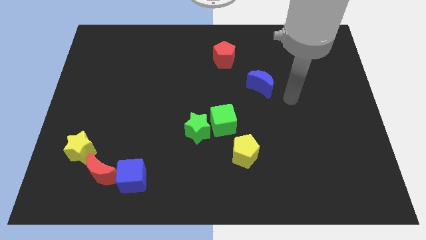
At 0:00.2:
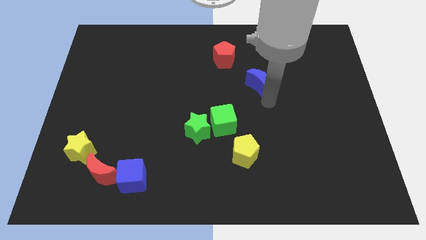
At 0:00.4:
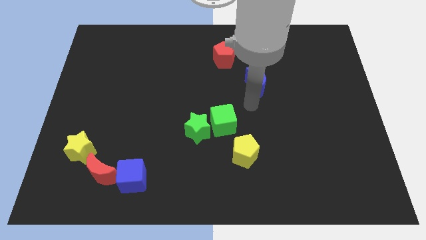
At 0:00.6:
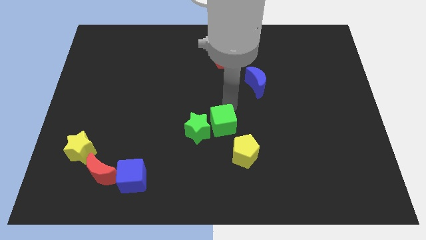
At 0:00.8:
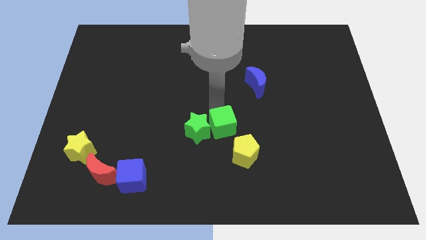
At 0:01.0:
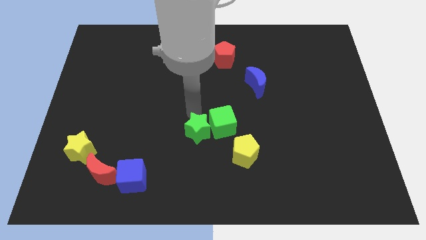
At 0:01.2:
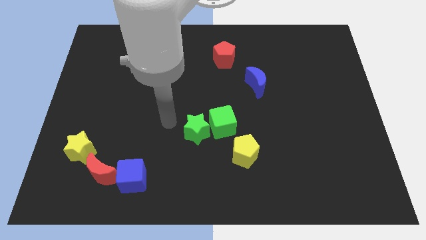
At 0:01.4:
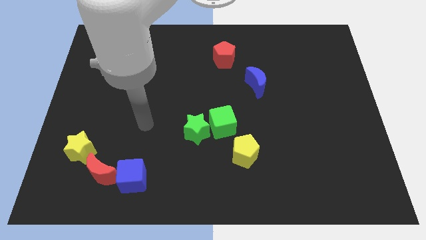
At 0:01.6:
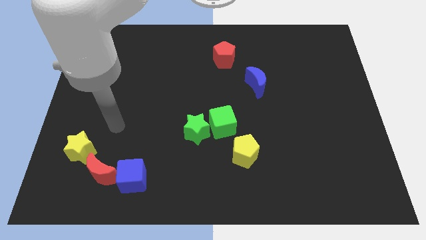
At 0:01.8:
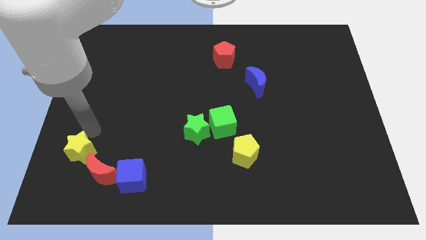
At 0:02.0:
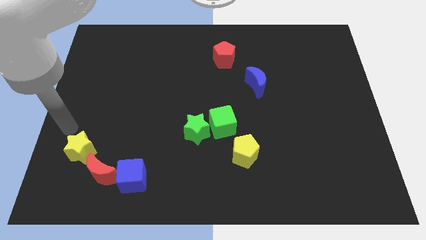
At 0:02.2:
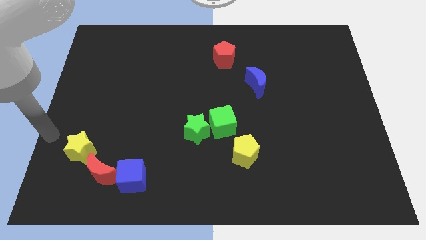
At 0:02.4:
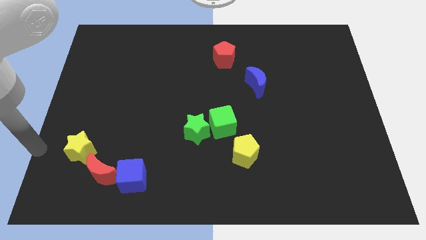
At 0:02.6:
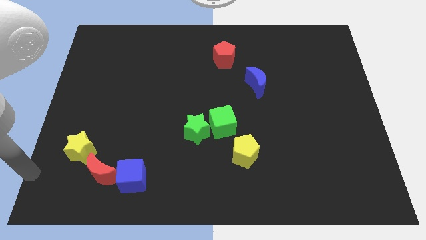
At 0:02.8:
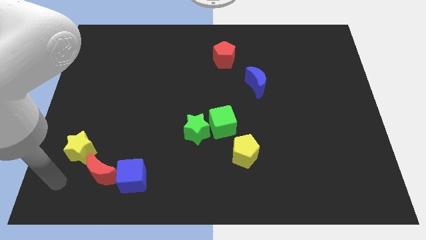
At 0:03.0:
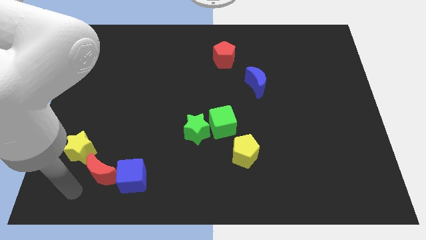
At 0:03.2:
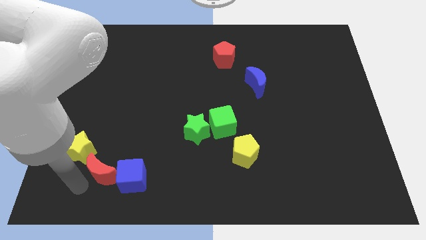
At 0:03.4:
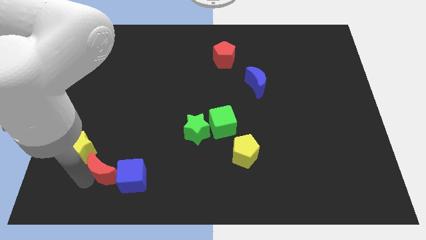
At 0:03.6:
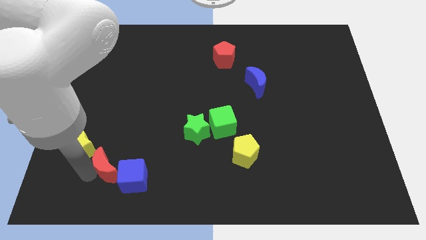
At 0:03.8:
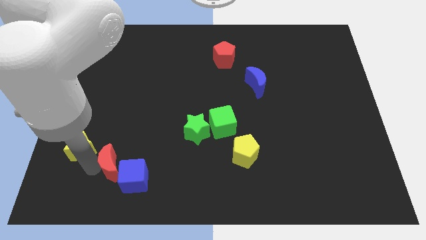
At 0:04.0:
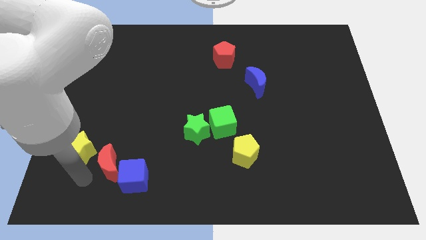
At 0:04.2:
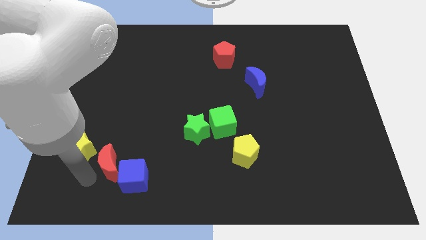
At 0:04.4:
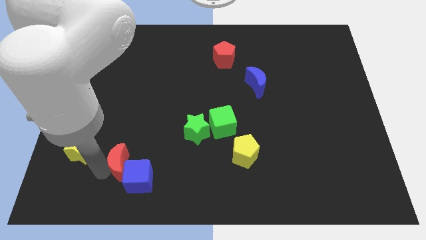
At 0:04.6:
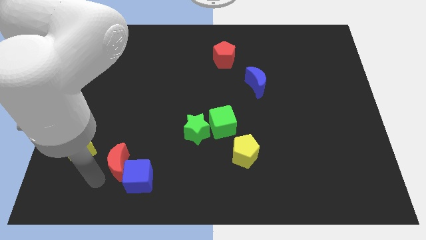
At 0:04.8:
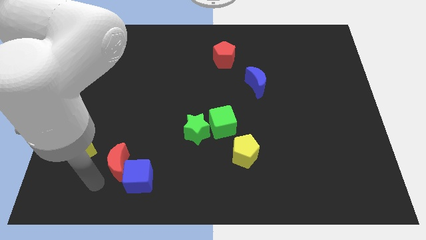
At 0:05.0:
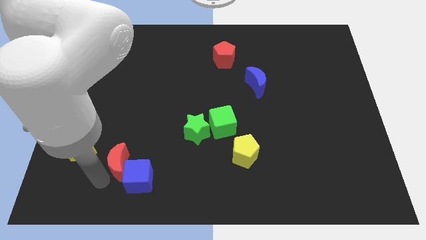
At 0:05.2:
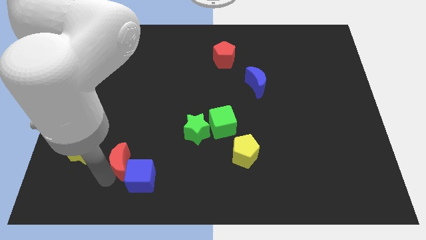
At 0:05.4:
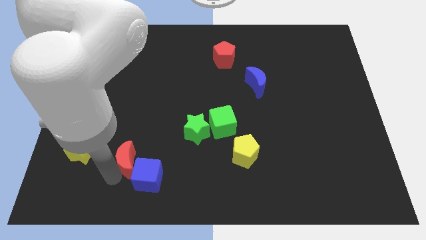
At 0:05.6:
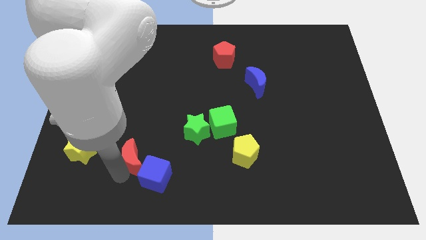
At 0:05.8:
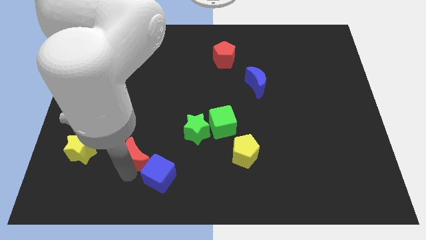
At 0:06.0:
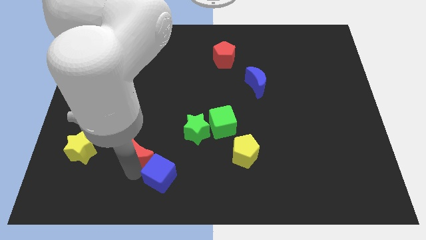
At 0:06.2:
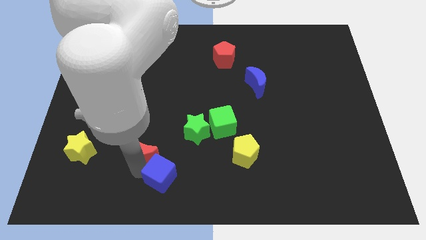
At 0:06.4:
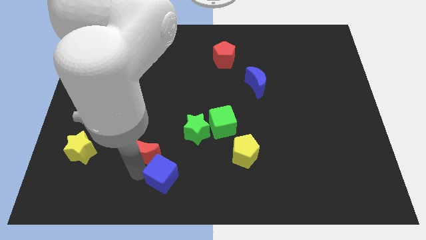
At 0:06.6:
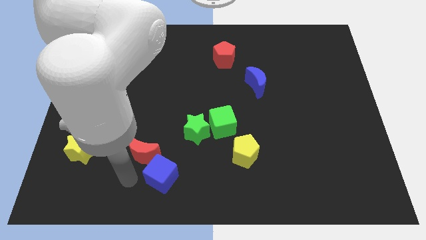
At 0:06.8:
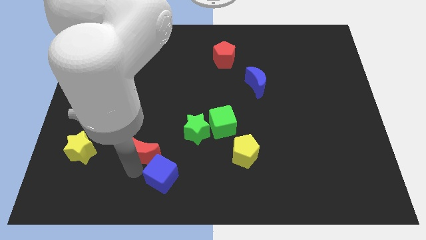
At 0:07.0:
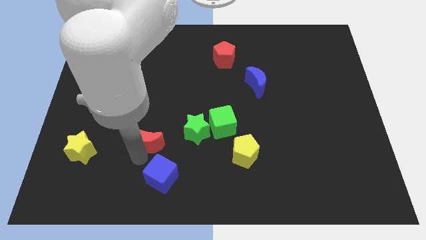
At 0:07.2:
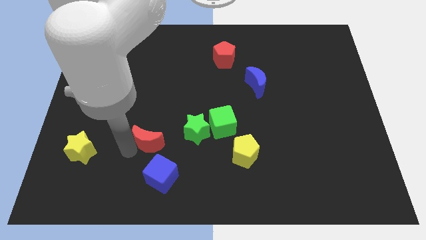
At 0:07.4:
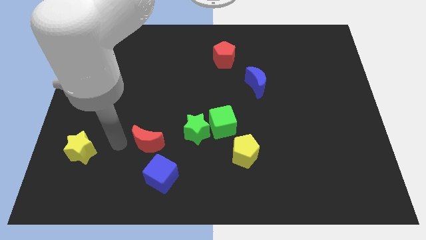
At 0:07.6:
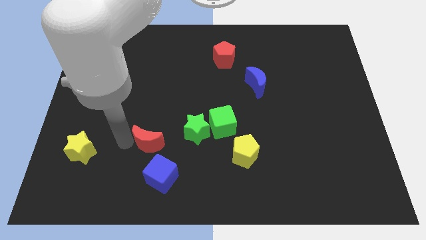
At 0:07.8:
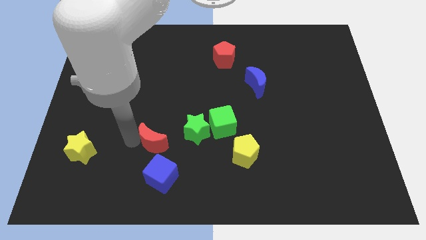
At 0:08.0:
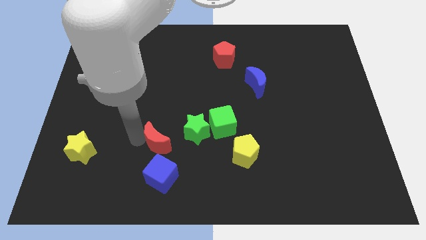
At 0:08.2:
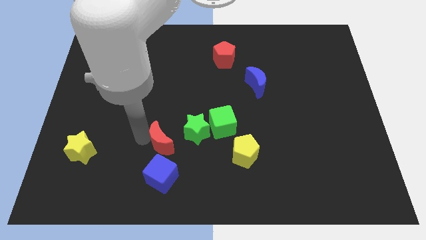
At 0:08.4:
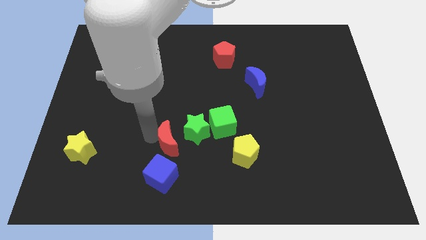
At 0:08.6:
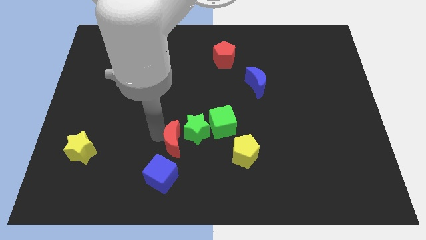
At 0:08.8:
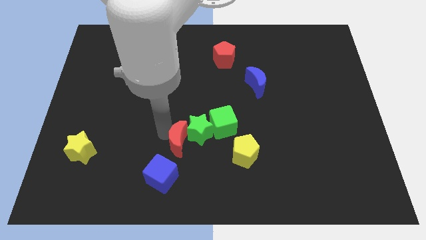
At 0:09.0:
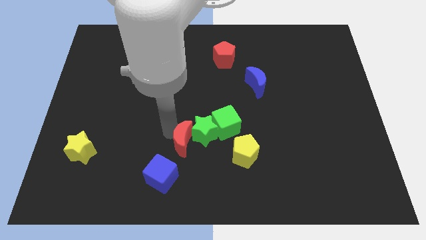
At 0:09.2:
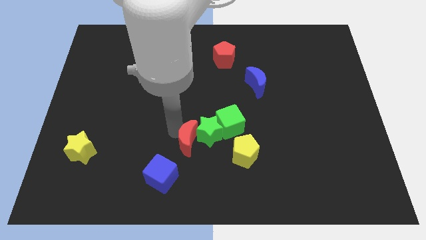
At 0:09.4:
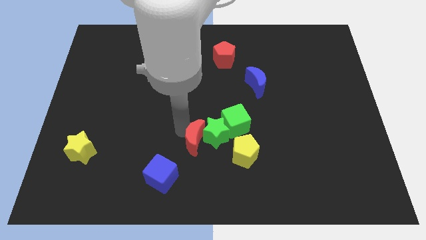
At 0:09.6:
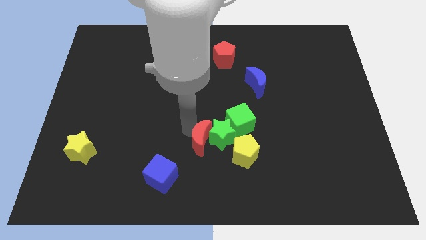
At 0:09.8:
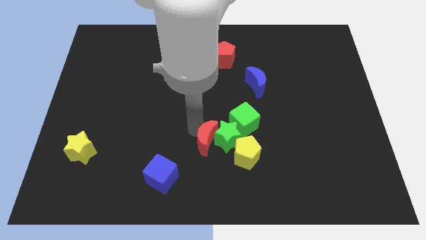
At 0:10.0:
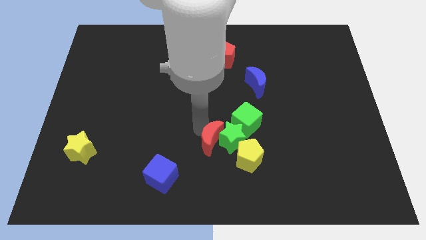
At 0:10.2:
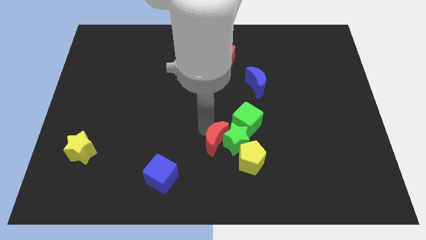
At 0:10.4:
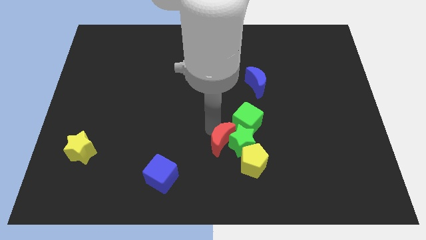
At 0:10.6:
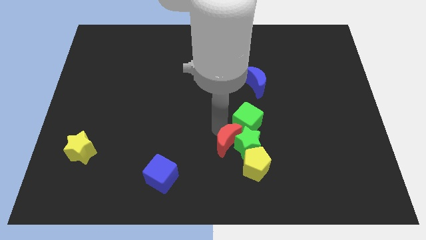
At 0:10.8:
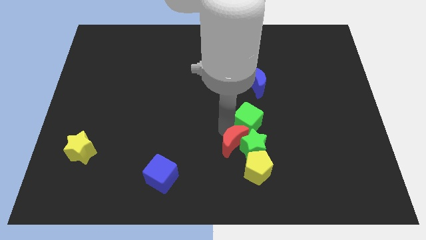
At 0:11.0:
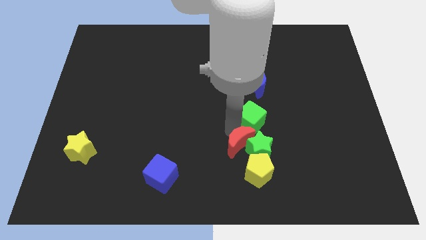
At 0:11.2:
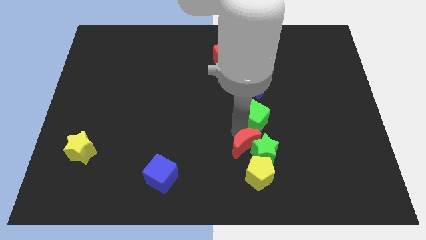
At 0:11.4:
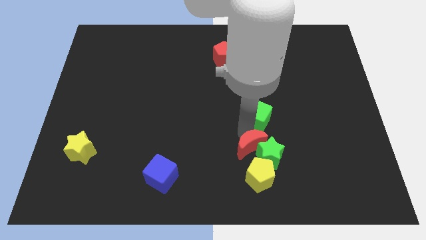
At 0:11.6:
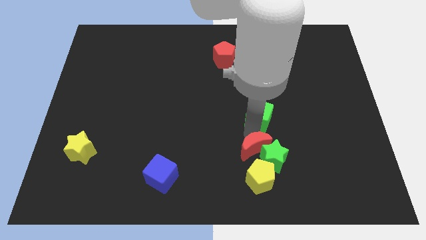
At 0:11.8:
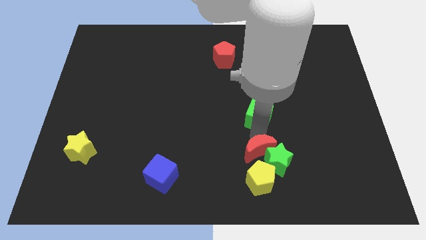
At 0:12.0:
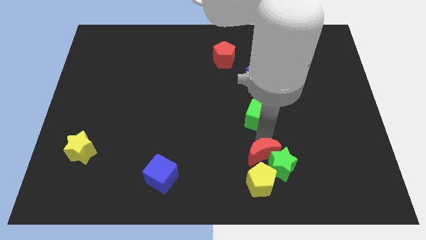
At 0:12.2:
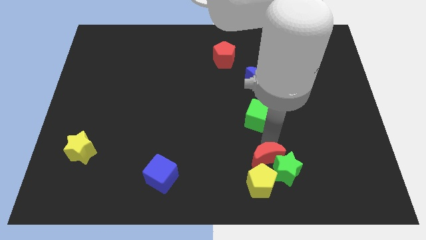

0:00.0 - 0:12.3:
slide the red moon towards the yellow pentagon

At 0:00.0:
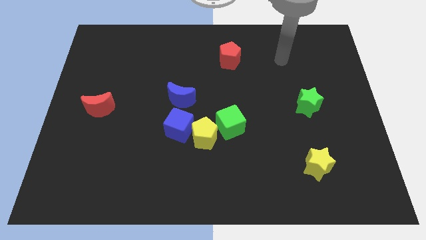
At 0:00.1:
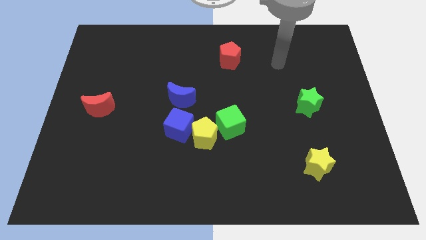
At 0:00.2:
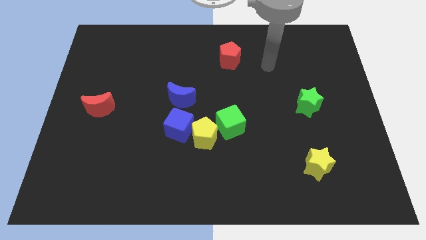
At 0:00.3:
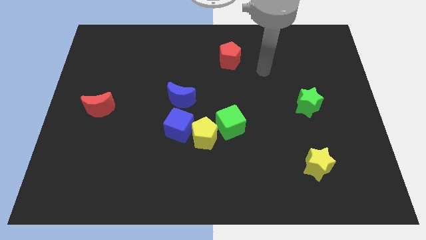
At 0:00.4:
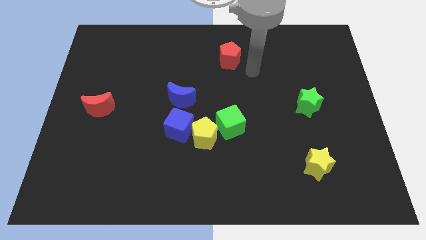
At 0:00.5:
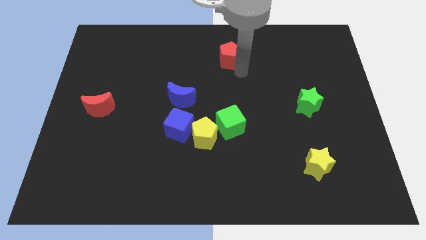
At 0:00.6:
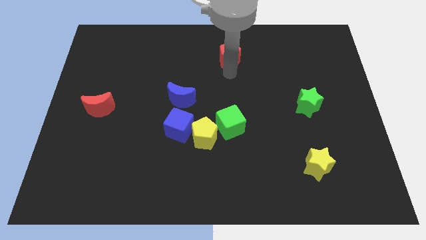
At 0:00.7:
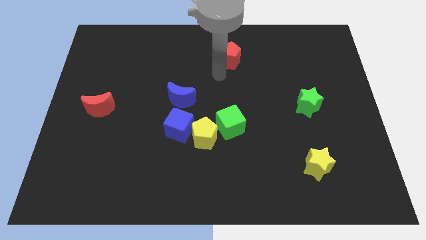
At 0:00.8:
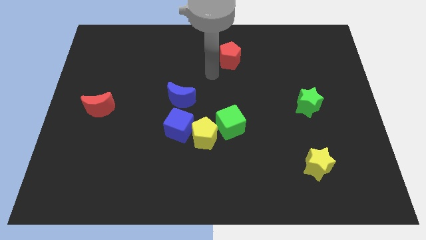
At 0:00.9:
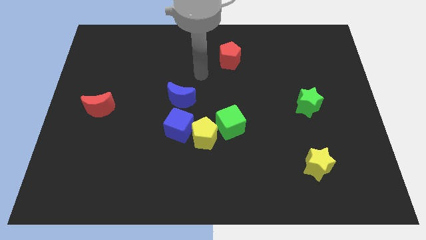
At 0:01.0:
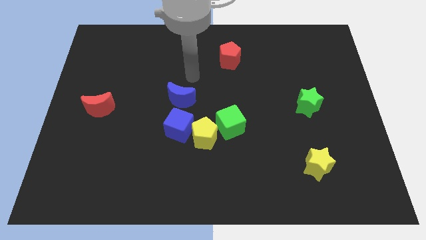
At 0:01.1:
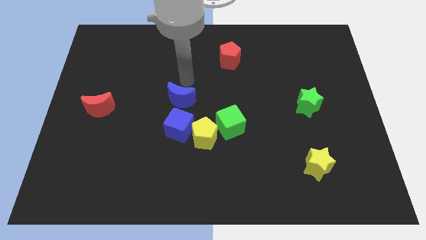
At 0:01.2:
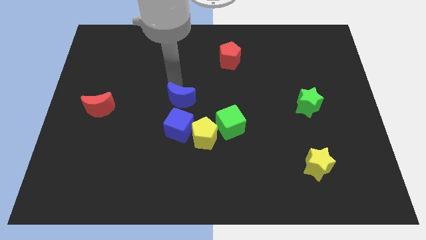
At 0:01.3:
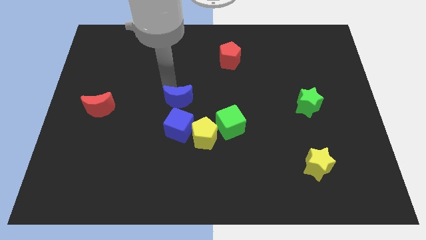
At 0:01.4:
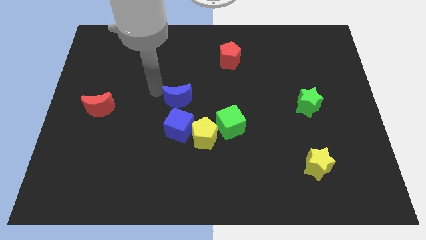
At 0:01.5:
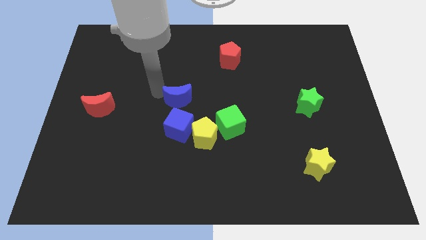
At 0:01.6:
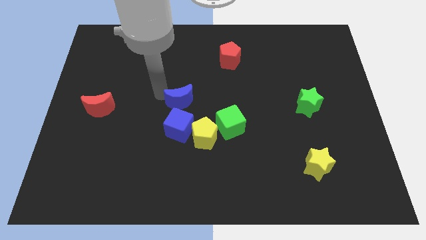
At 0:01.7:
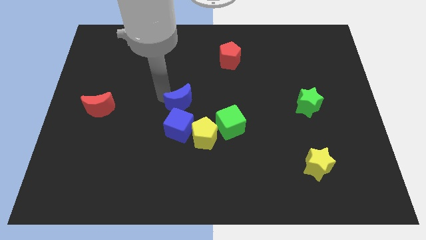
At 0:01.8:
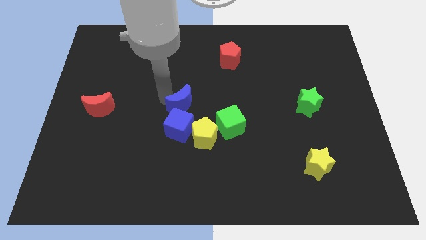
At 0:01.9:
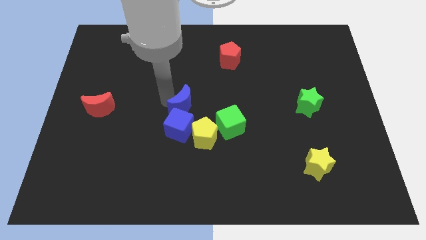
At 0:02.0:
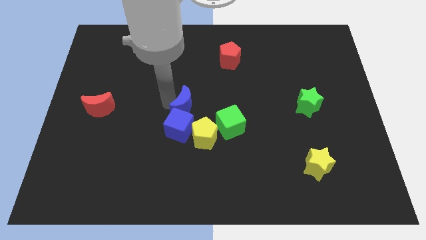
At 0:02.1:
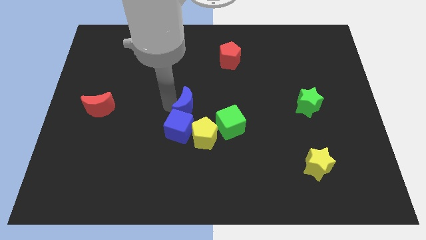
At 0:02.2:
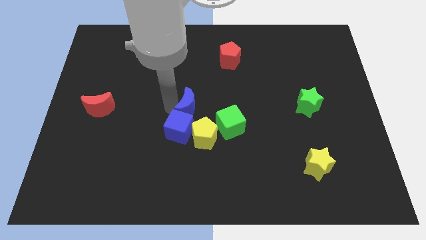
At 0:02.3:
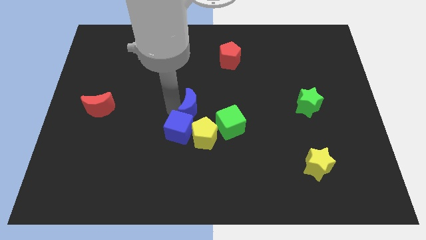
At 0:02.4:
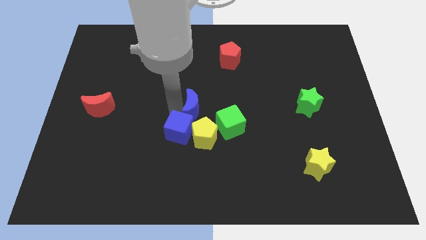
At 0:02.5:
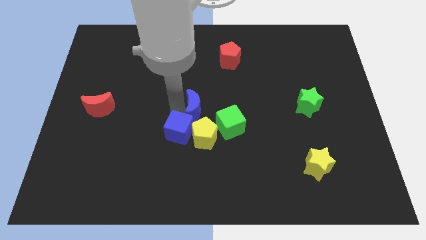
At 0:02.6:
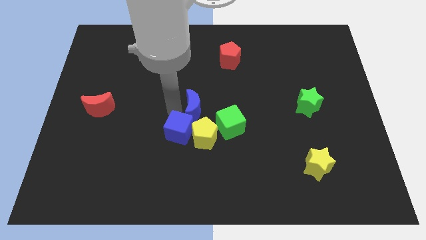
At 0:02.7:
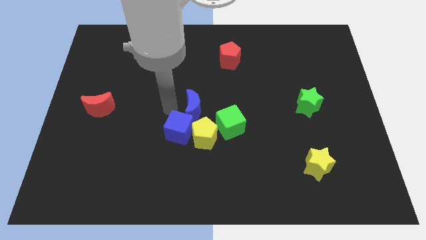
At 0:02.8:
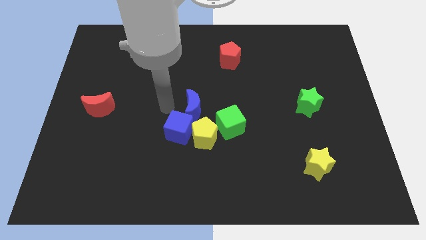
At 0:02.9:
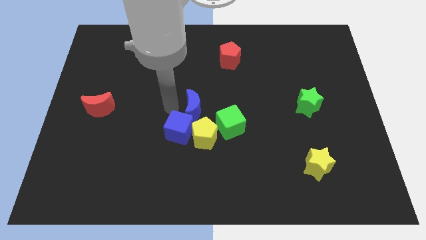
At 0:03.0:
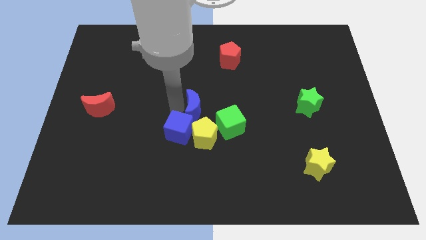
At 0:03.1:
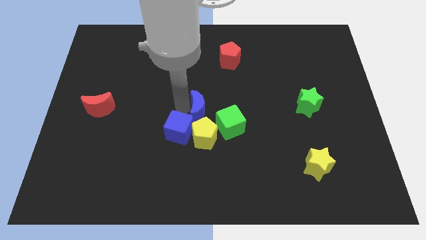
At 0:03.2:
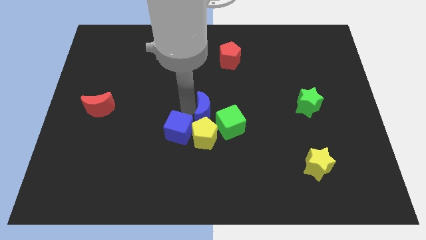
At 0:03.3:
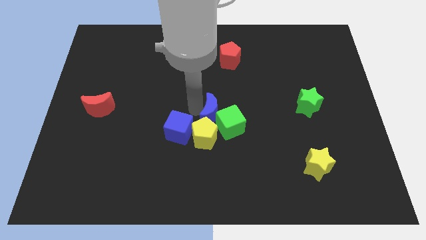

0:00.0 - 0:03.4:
push the blue moon close to the green cube
